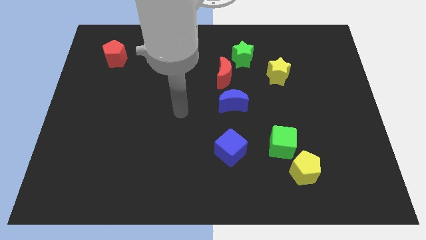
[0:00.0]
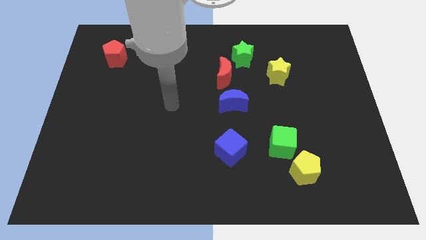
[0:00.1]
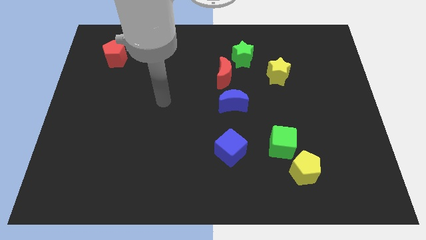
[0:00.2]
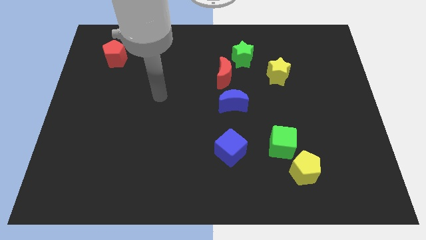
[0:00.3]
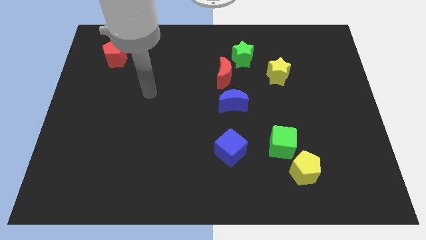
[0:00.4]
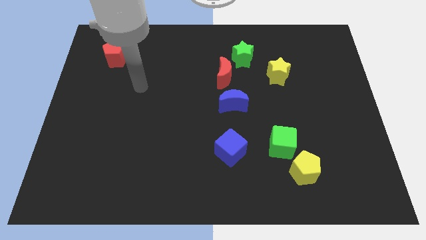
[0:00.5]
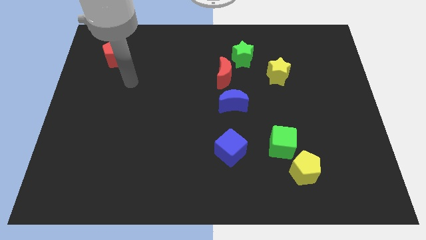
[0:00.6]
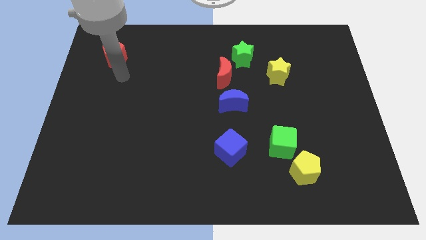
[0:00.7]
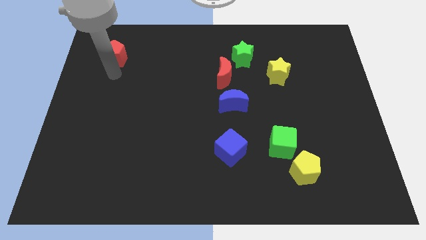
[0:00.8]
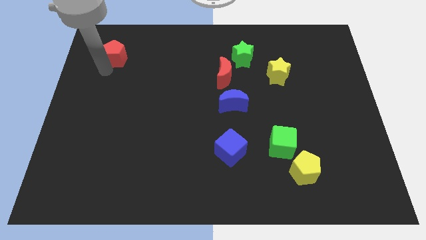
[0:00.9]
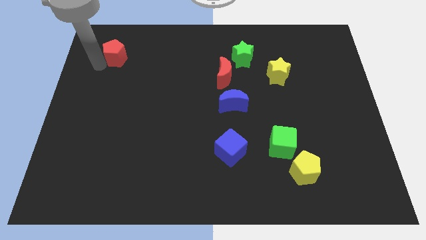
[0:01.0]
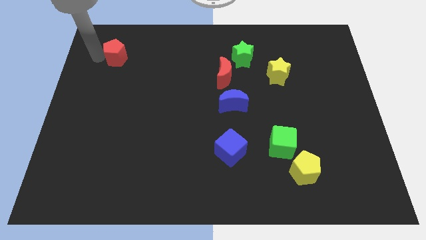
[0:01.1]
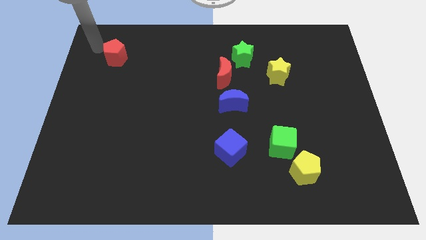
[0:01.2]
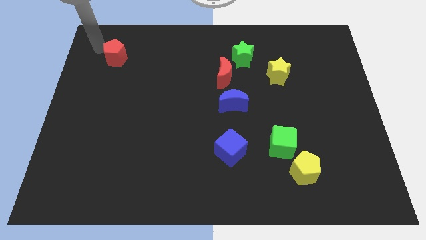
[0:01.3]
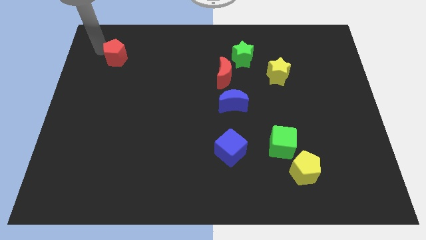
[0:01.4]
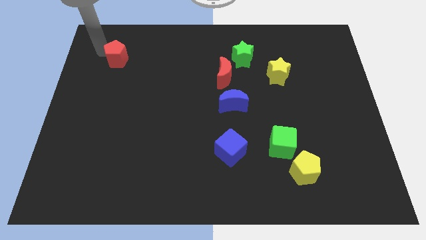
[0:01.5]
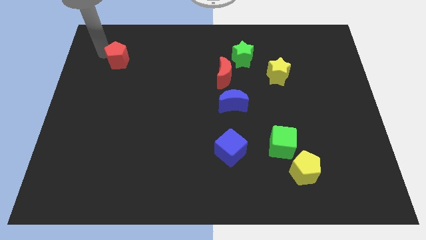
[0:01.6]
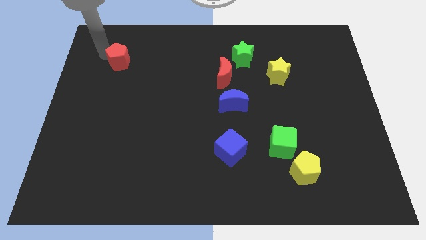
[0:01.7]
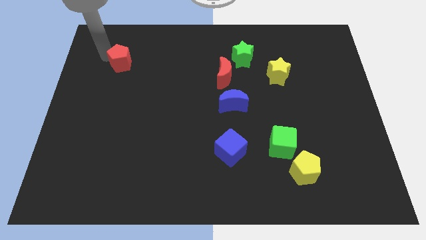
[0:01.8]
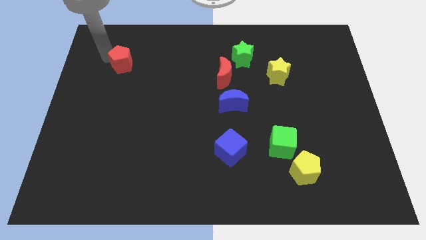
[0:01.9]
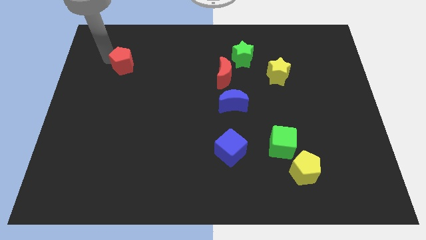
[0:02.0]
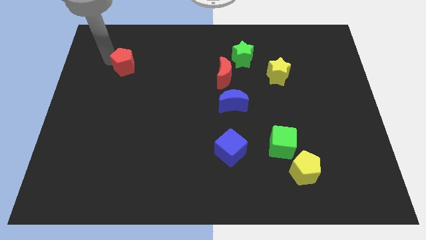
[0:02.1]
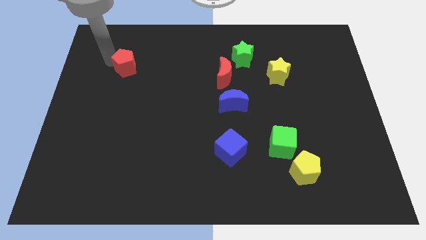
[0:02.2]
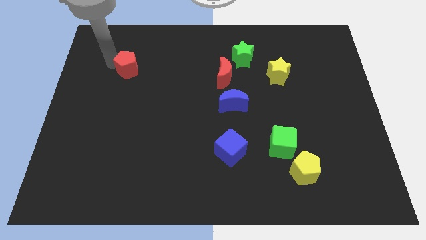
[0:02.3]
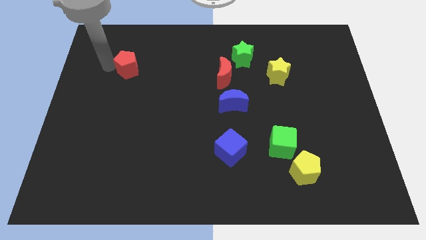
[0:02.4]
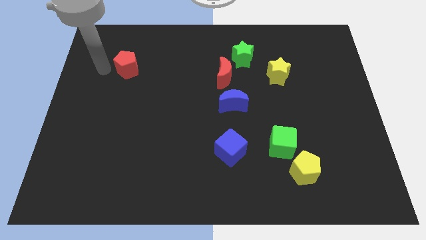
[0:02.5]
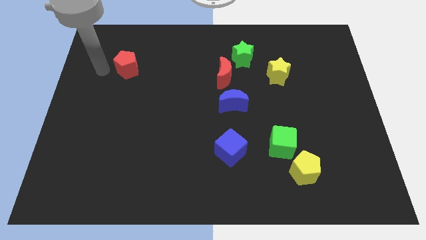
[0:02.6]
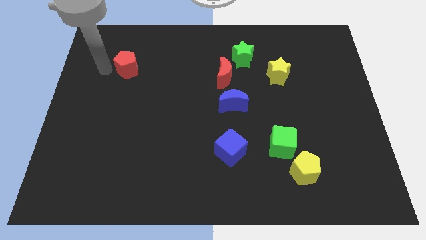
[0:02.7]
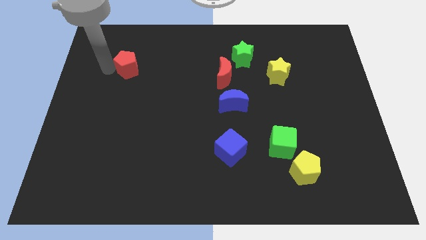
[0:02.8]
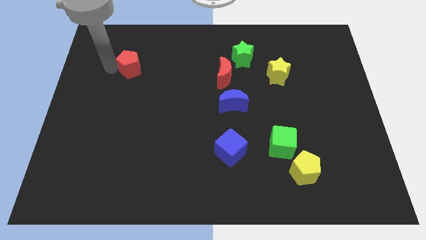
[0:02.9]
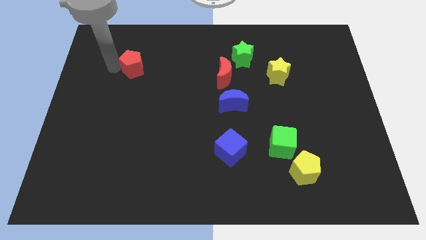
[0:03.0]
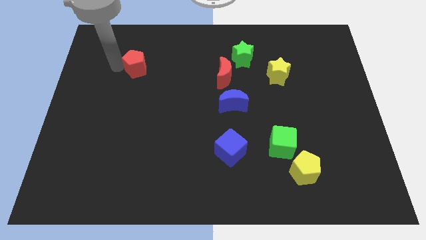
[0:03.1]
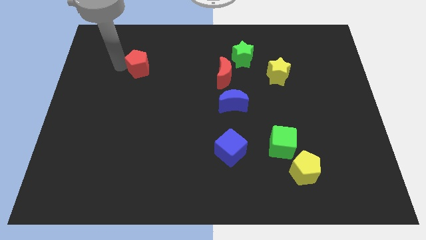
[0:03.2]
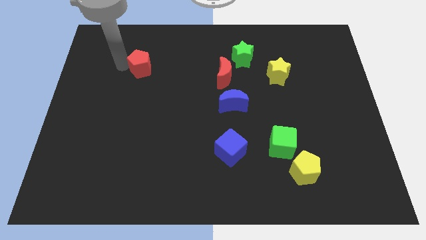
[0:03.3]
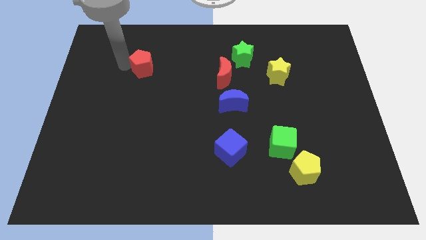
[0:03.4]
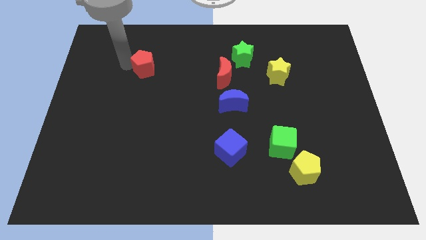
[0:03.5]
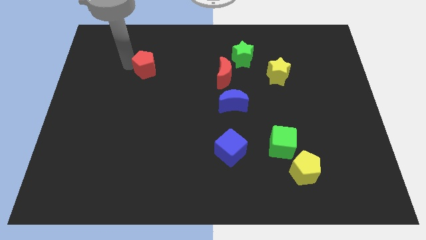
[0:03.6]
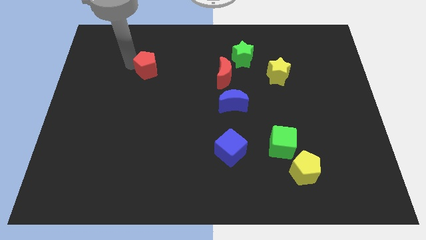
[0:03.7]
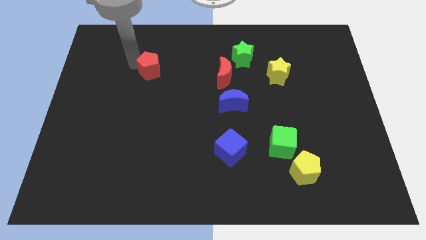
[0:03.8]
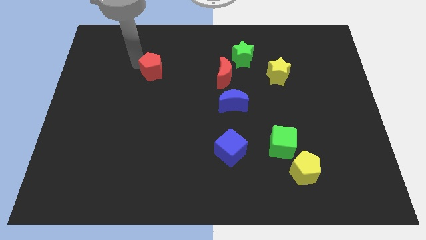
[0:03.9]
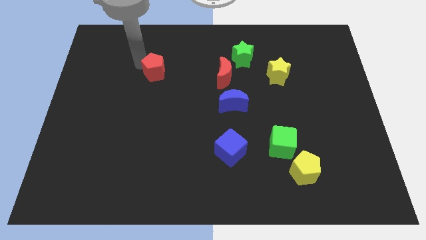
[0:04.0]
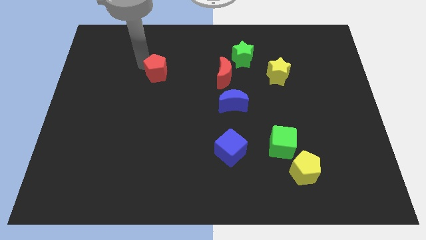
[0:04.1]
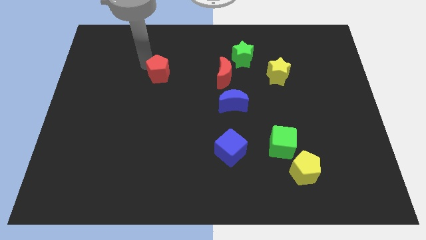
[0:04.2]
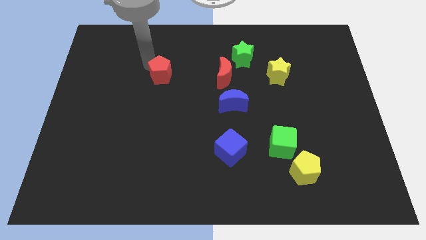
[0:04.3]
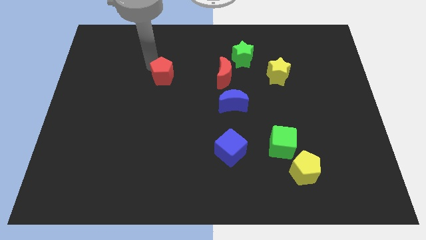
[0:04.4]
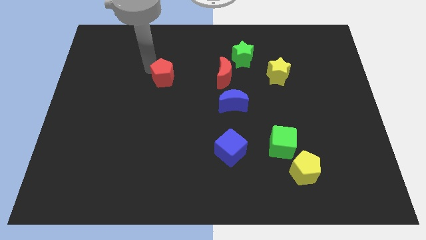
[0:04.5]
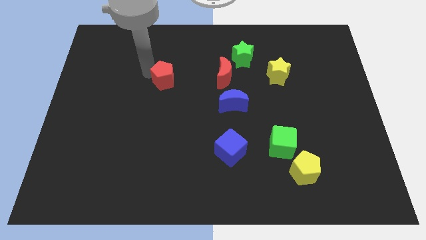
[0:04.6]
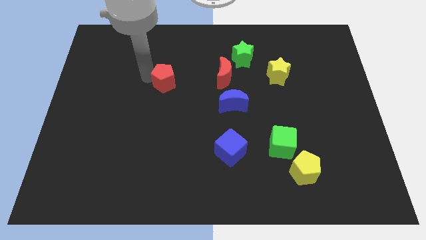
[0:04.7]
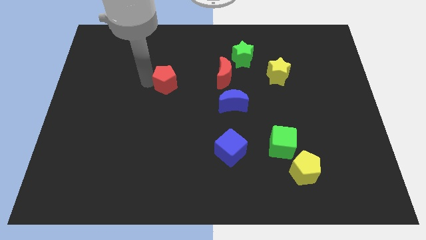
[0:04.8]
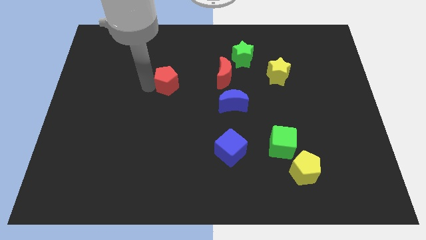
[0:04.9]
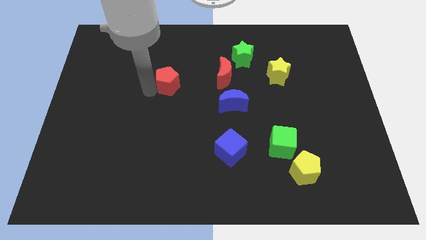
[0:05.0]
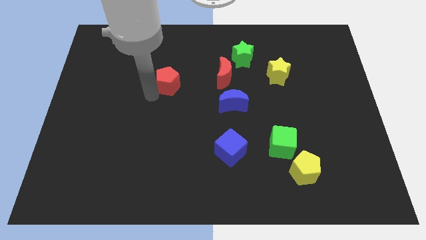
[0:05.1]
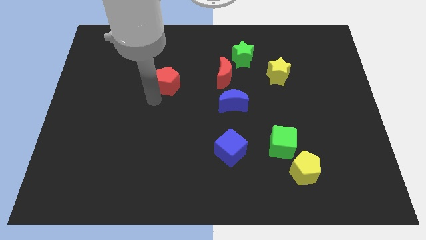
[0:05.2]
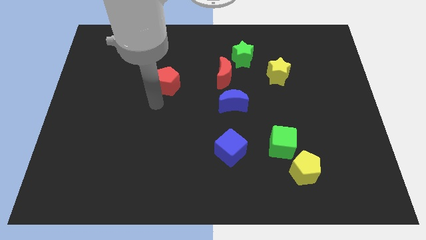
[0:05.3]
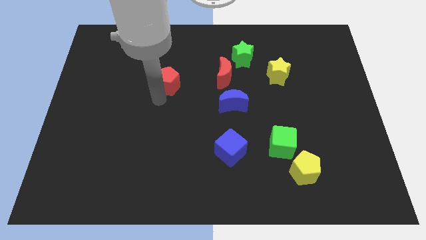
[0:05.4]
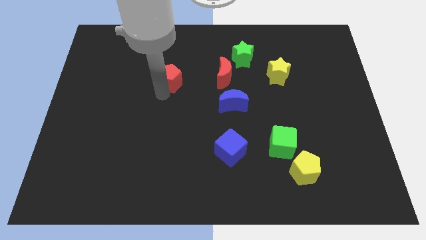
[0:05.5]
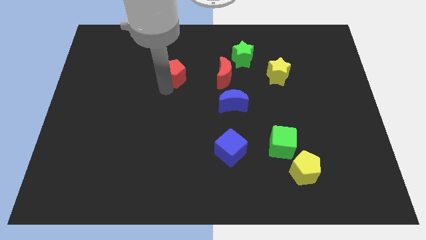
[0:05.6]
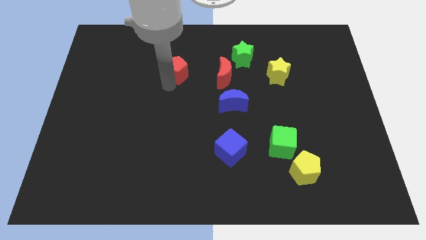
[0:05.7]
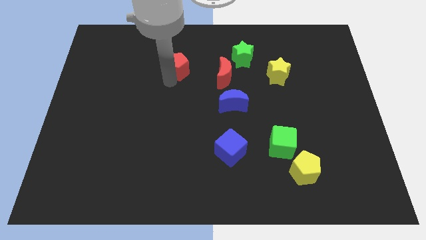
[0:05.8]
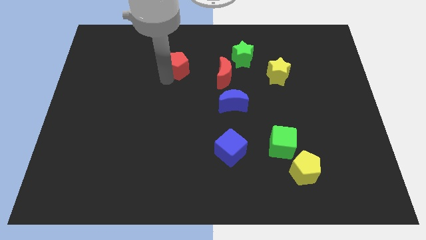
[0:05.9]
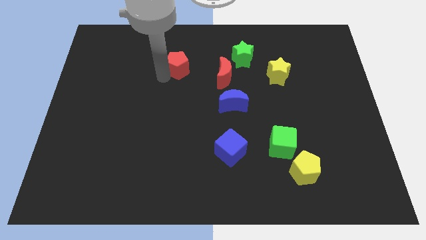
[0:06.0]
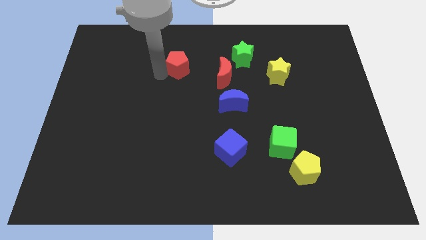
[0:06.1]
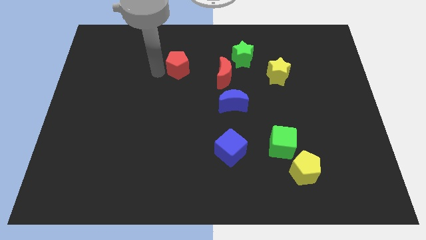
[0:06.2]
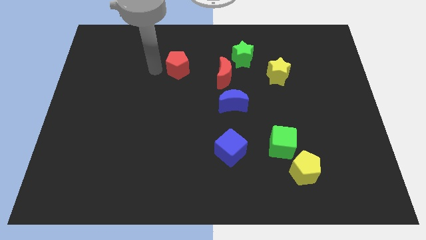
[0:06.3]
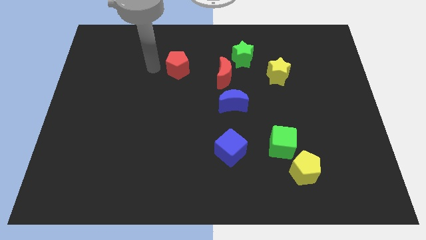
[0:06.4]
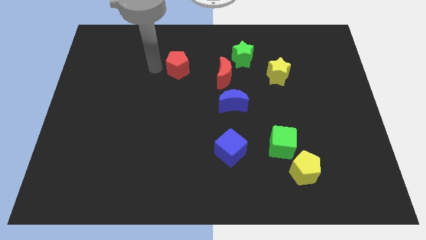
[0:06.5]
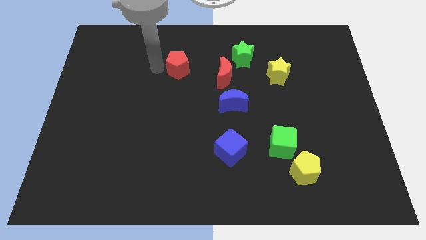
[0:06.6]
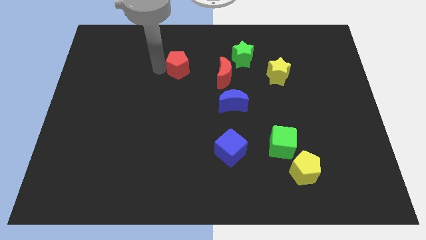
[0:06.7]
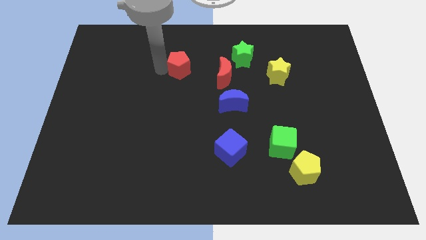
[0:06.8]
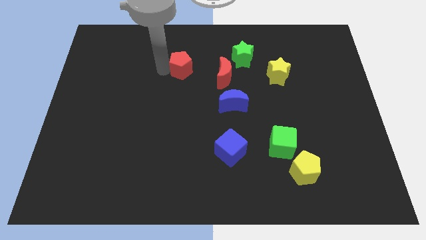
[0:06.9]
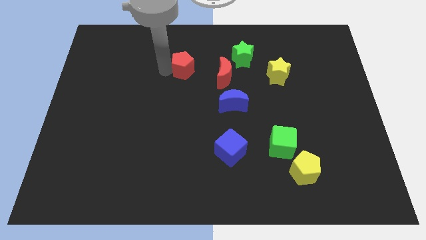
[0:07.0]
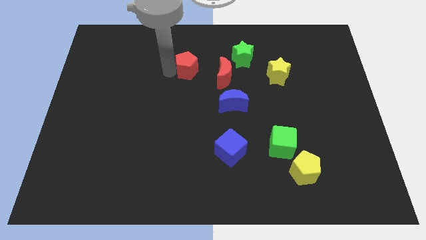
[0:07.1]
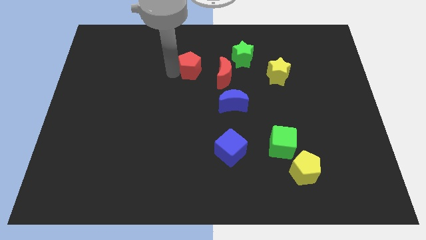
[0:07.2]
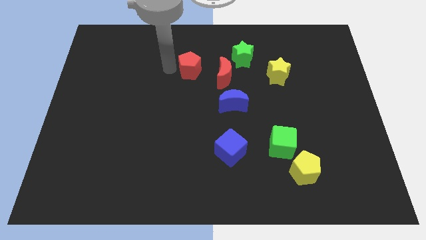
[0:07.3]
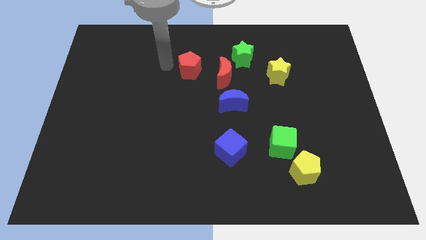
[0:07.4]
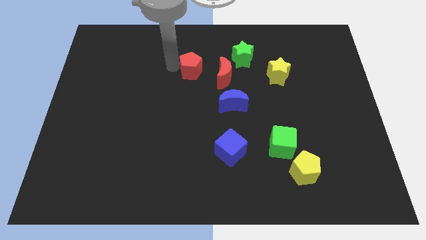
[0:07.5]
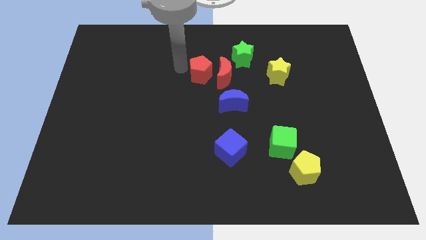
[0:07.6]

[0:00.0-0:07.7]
put the red pentagon towards the red moon

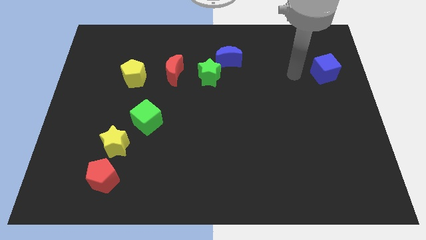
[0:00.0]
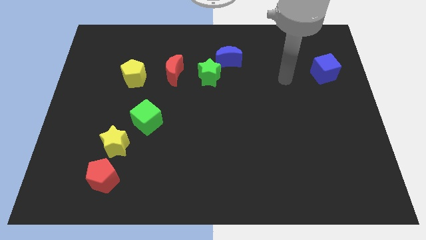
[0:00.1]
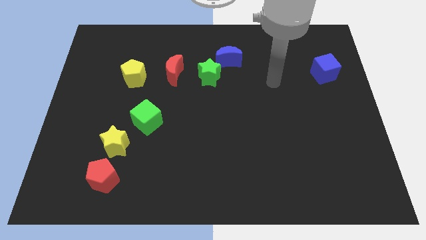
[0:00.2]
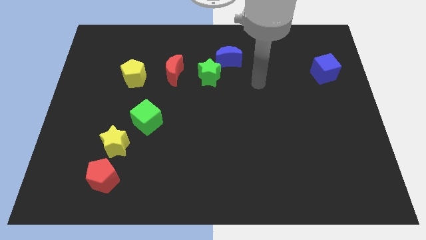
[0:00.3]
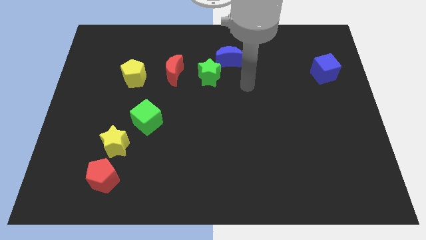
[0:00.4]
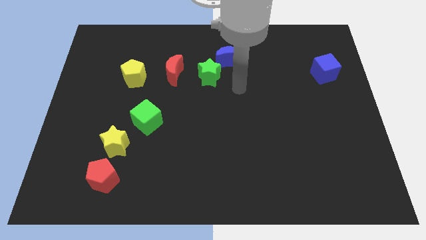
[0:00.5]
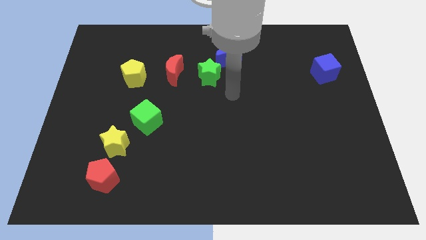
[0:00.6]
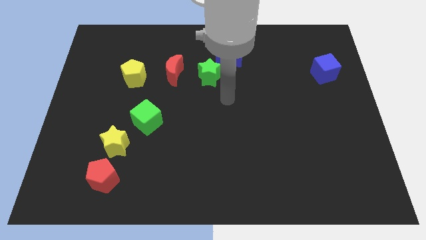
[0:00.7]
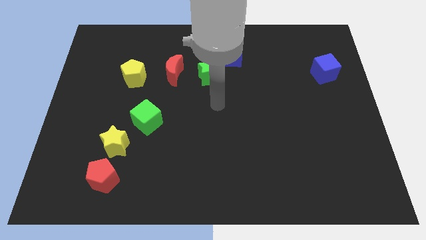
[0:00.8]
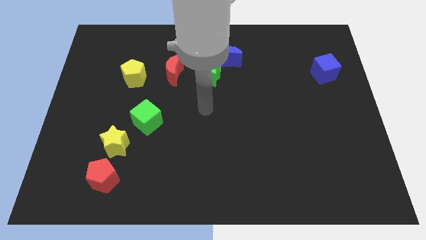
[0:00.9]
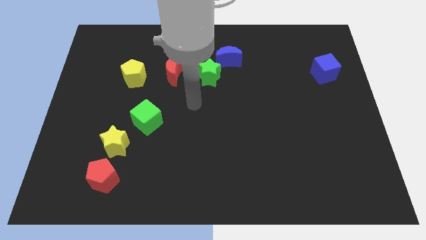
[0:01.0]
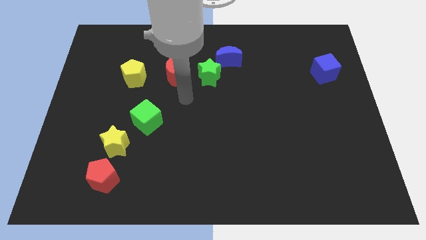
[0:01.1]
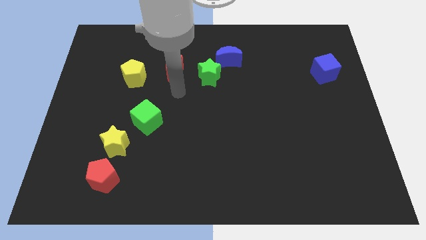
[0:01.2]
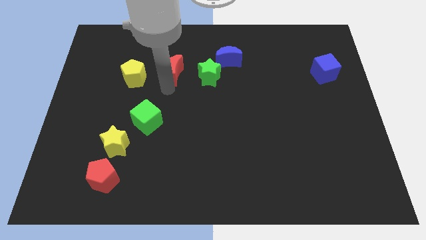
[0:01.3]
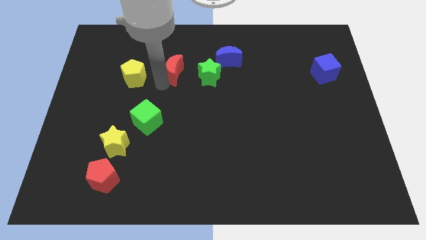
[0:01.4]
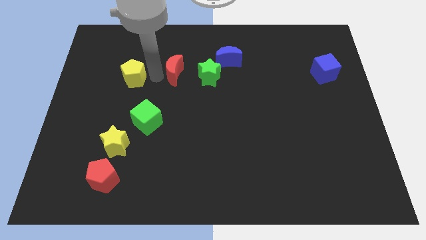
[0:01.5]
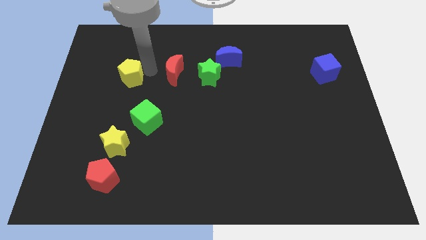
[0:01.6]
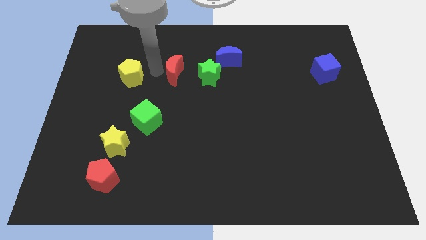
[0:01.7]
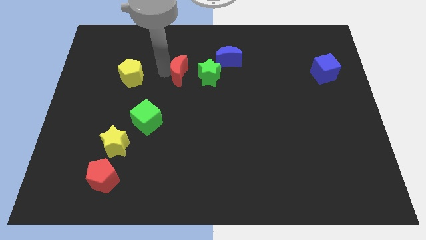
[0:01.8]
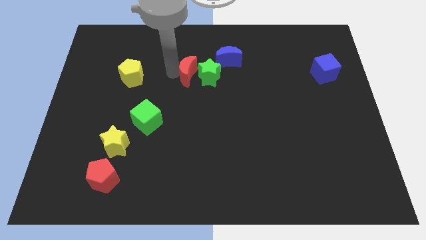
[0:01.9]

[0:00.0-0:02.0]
put the red moon towards the green star
